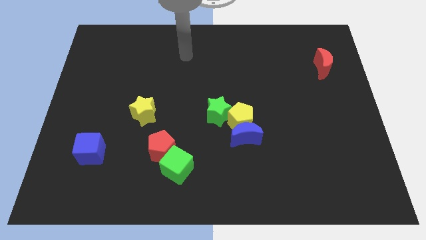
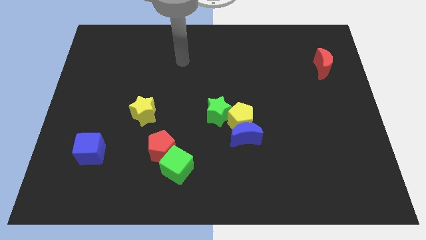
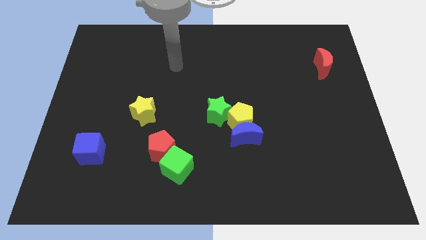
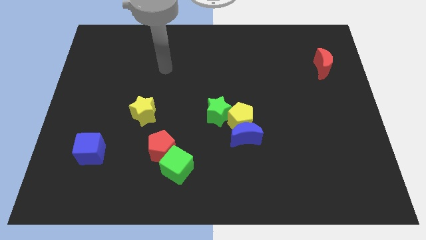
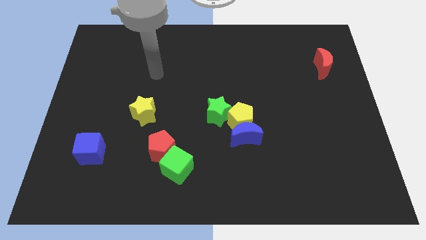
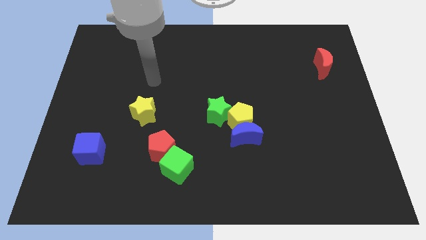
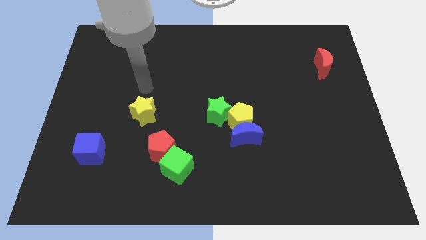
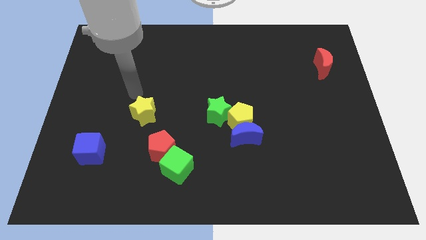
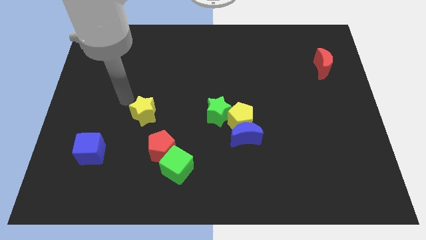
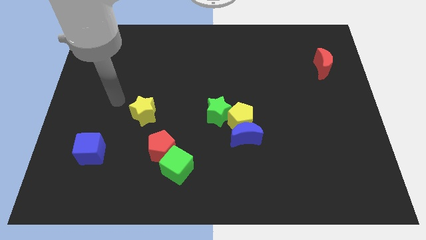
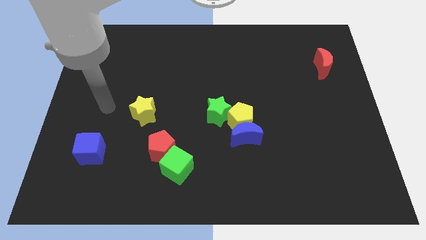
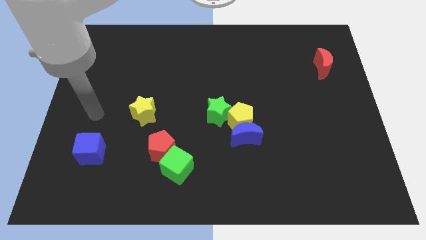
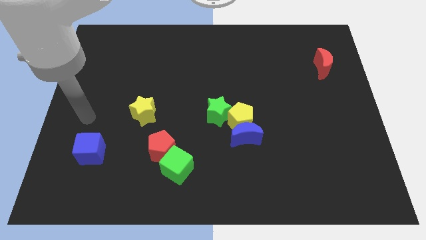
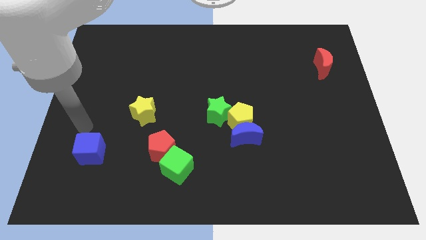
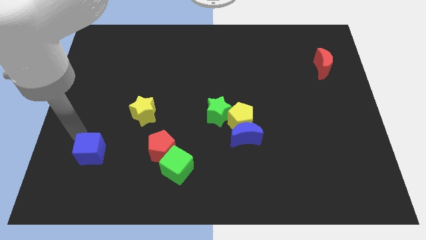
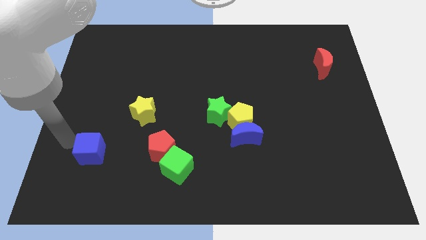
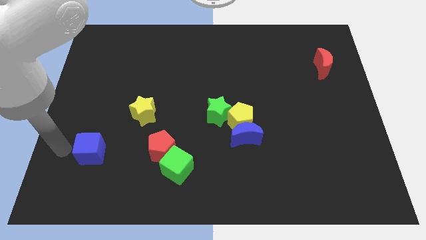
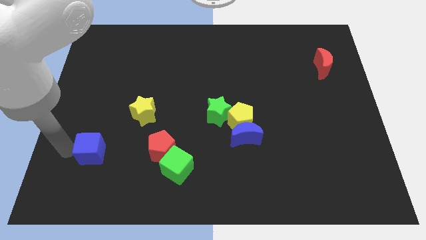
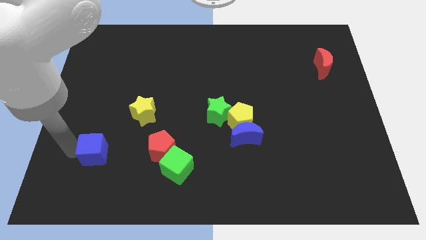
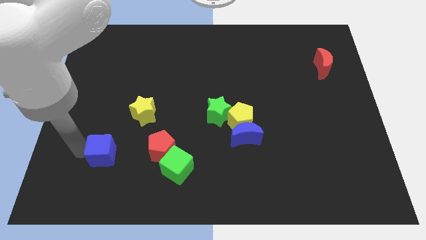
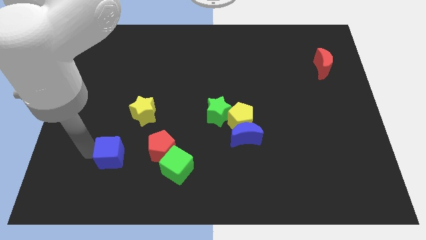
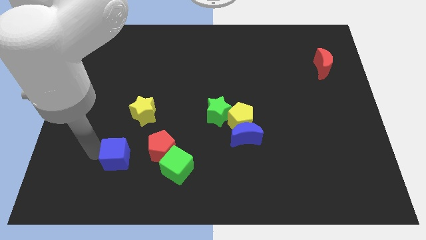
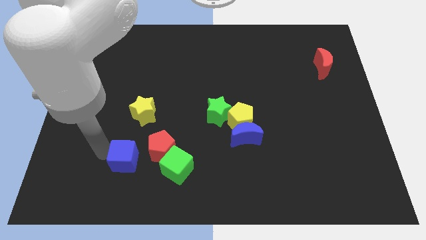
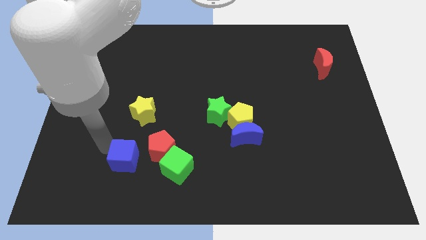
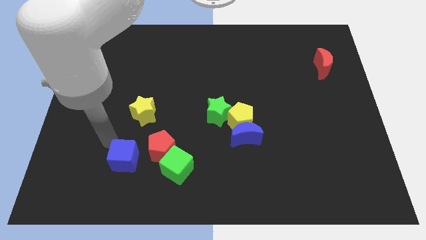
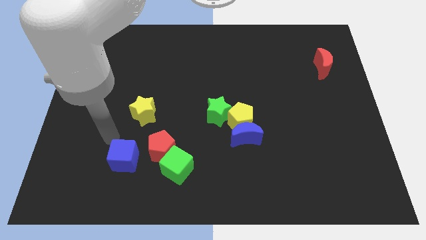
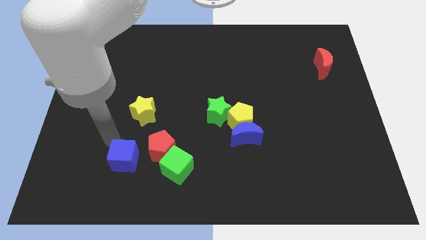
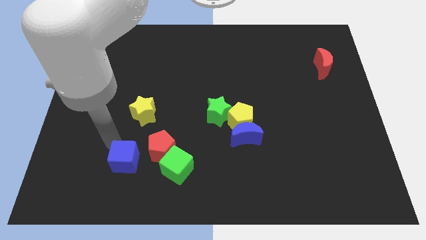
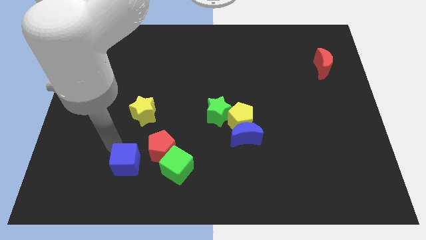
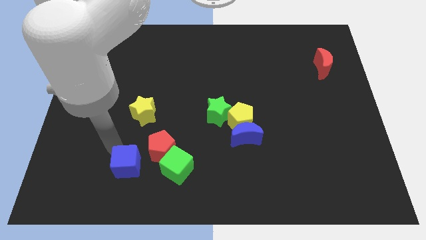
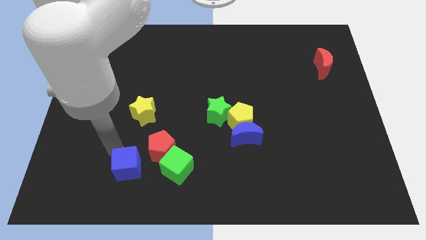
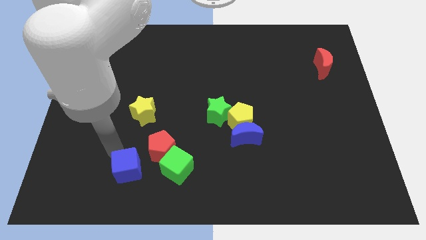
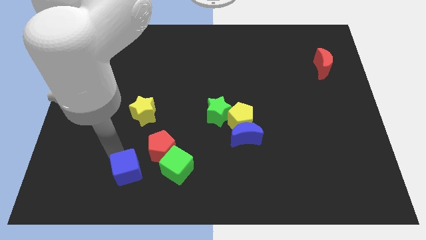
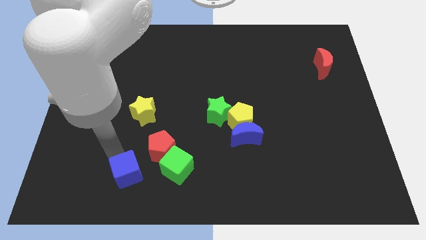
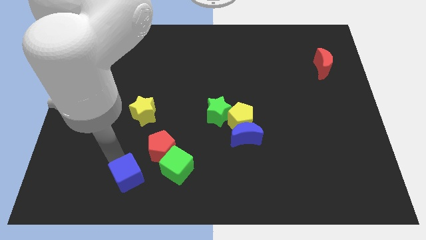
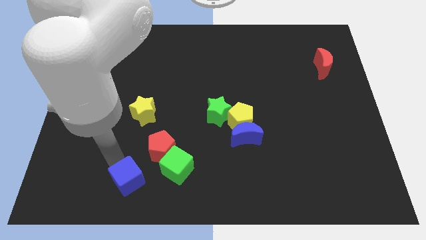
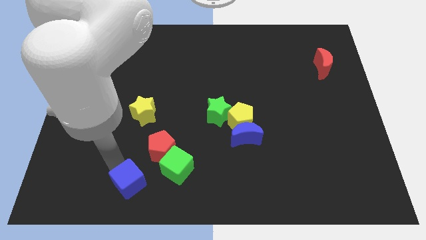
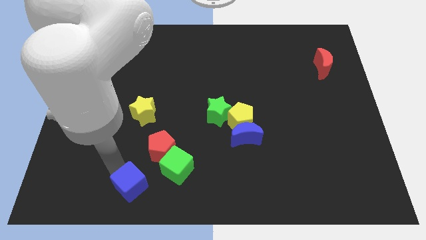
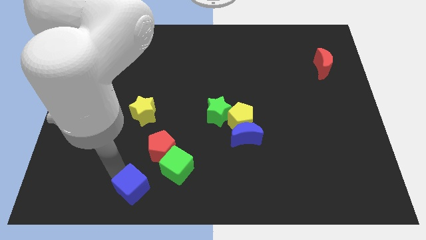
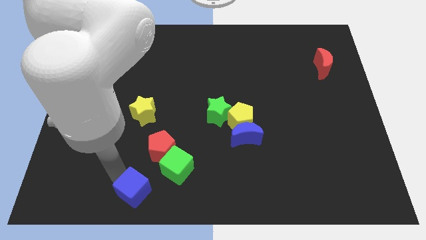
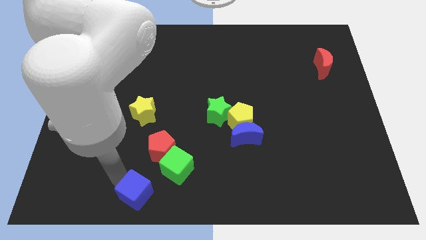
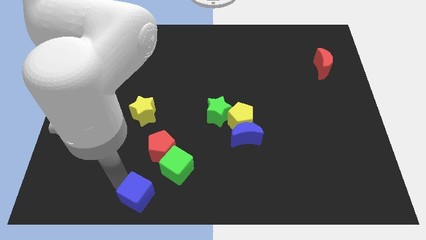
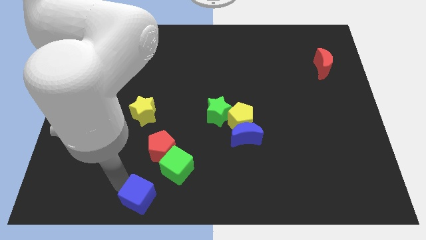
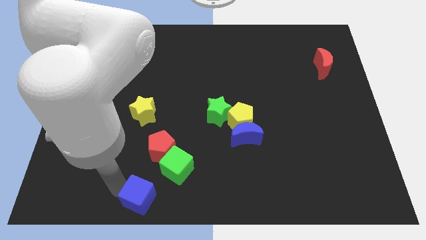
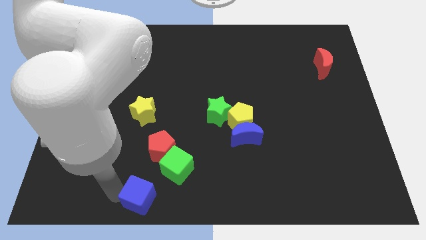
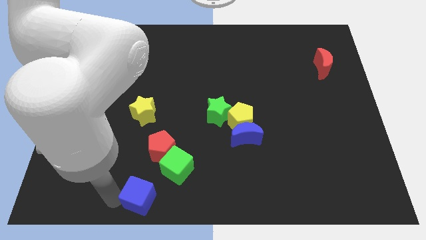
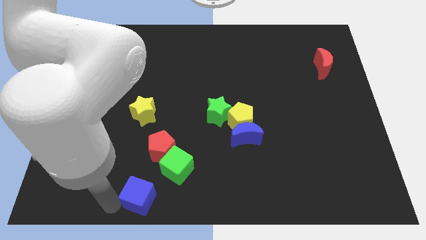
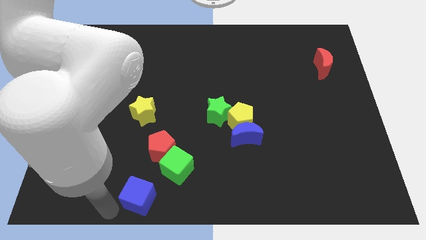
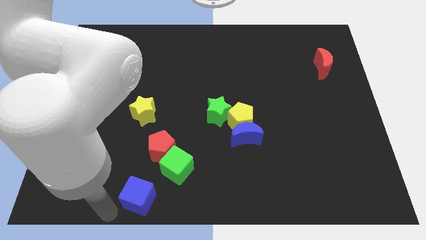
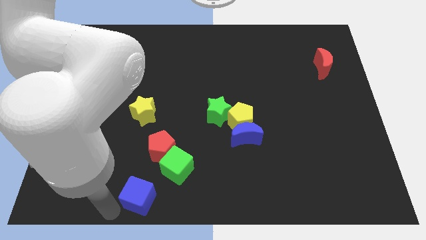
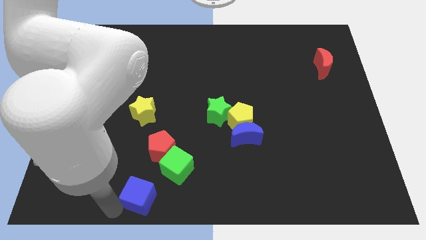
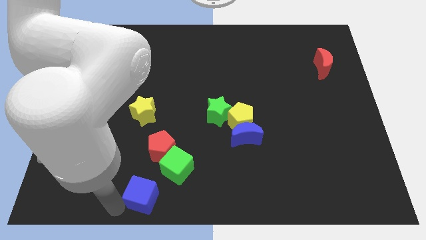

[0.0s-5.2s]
push the blue cube to the bottom

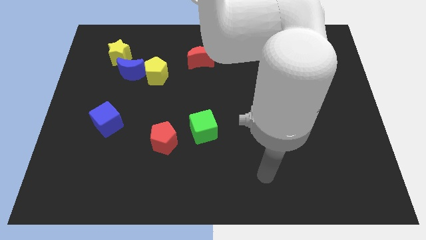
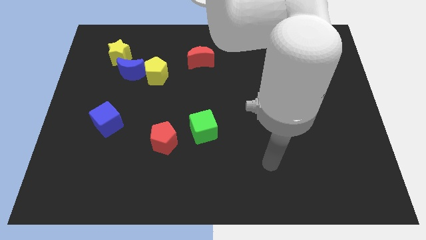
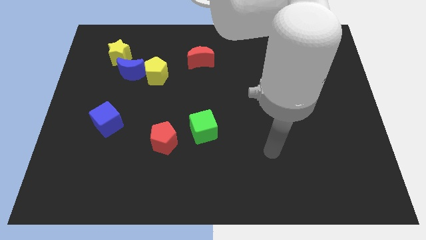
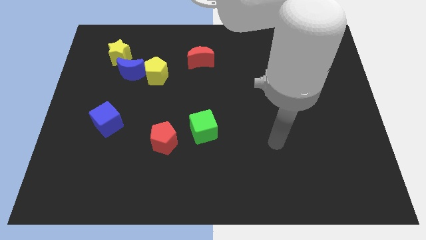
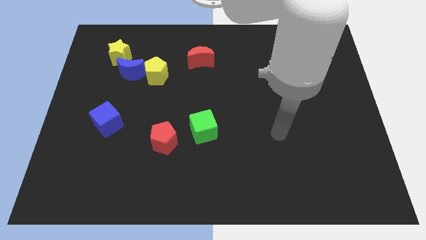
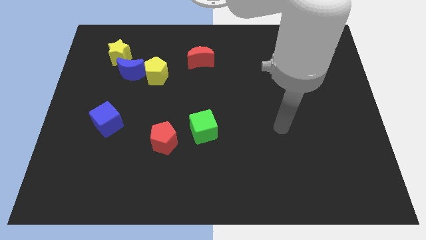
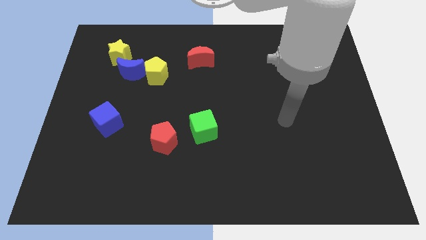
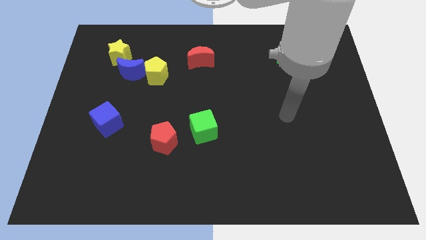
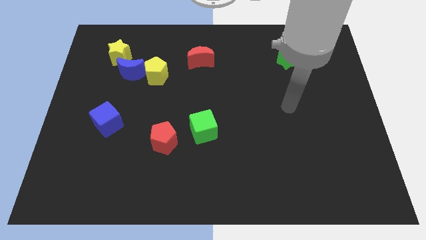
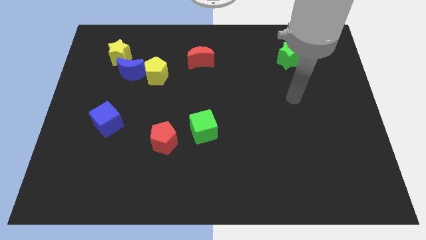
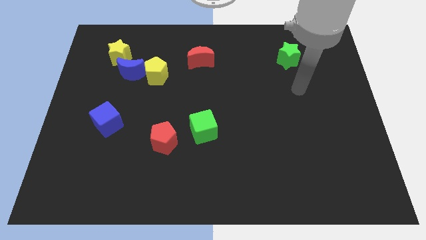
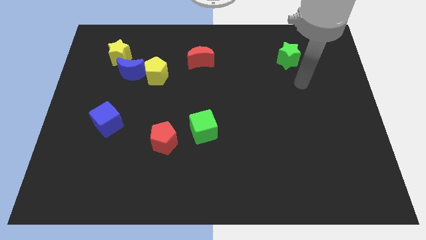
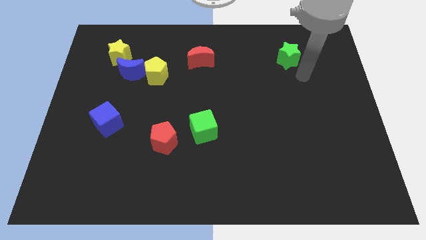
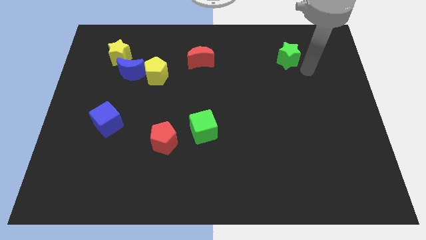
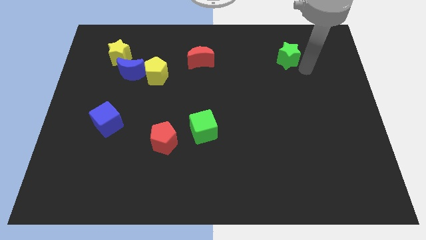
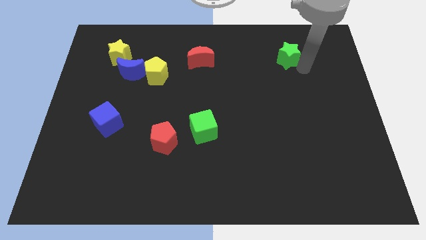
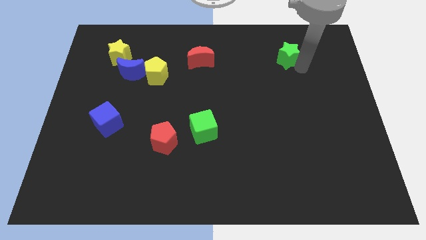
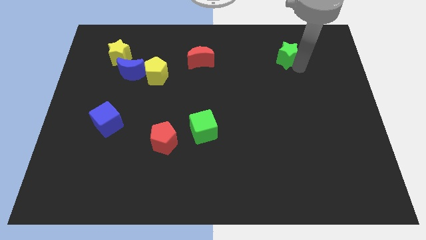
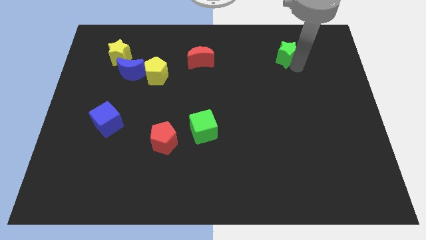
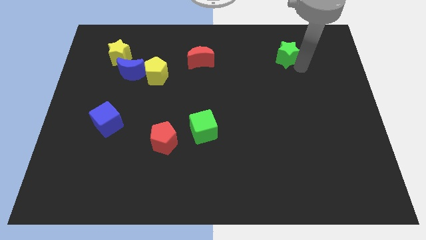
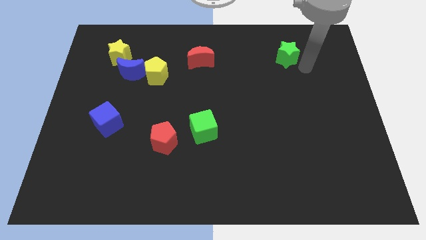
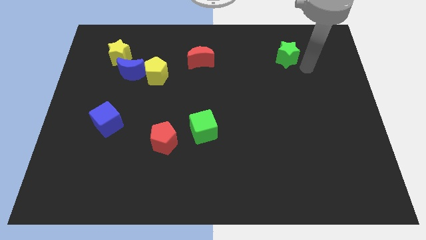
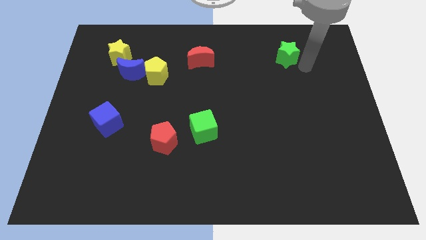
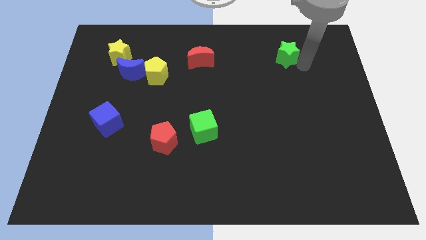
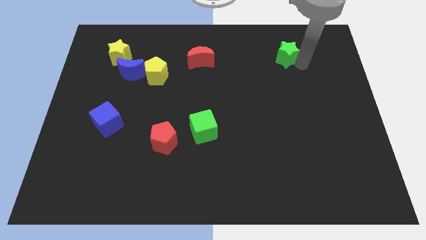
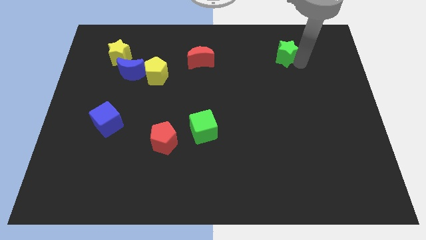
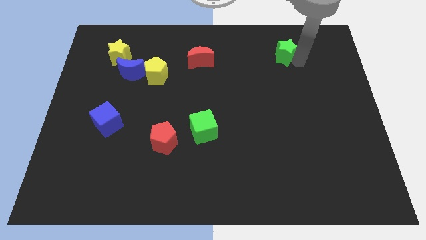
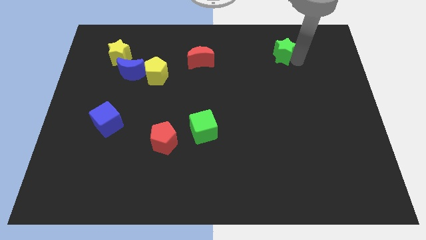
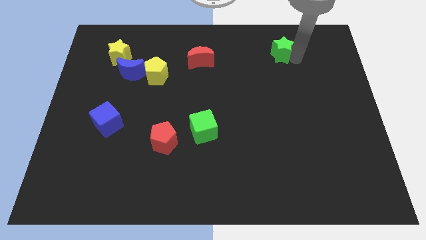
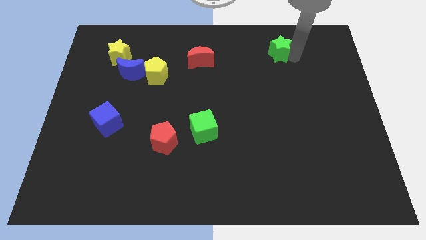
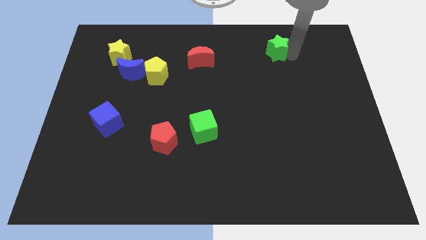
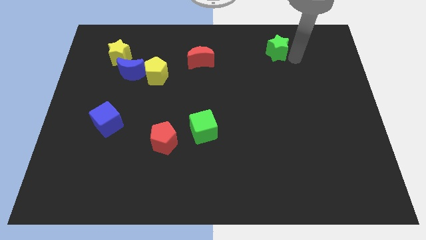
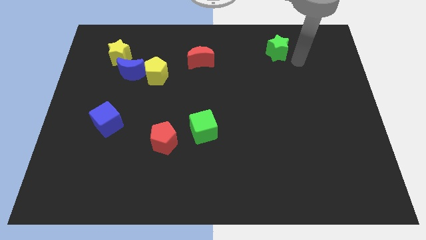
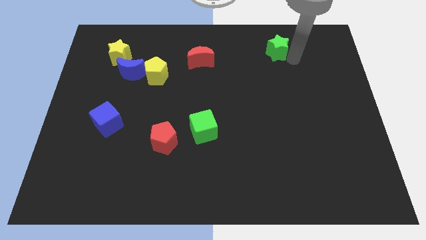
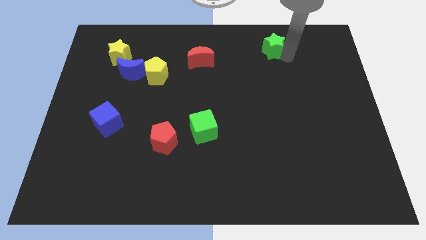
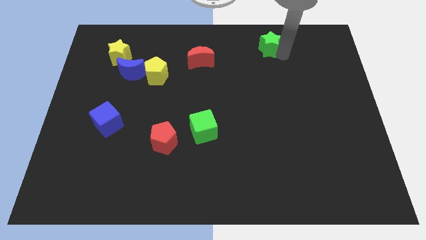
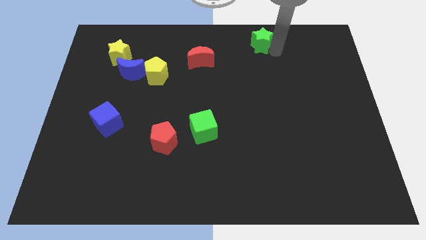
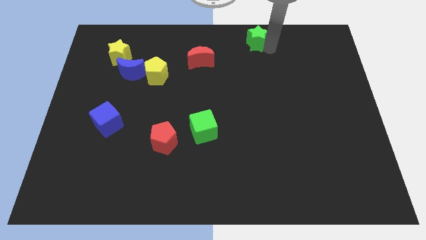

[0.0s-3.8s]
move the green star to the top
